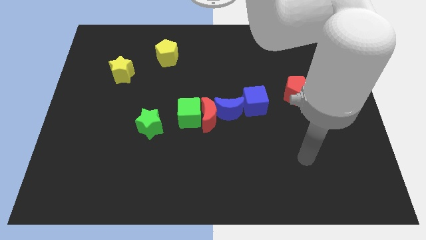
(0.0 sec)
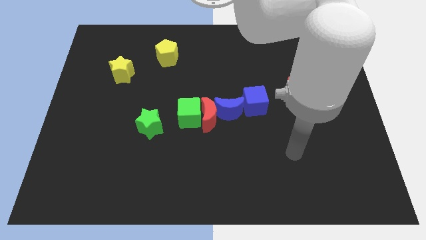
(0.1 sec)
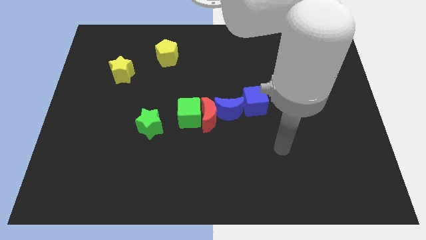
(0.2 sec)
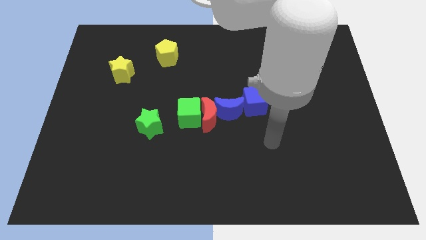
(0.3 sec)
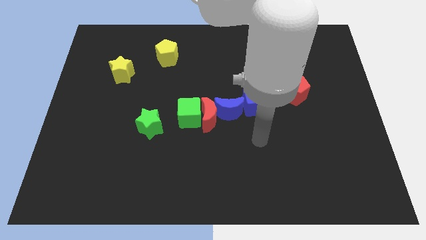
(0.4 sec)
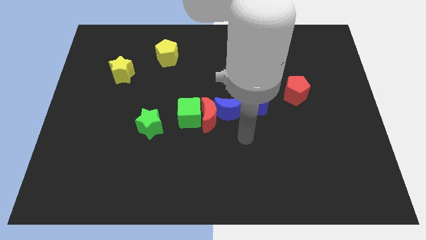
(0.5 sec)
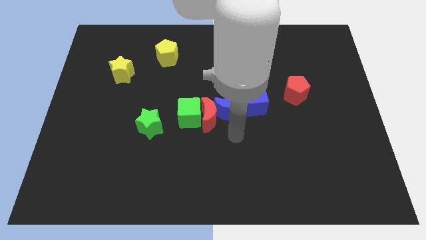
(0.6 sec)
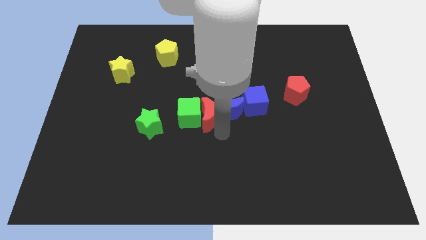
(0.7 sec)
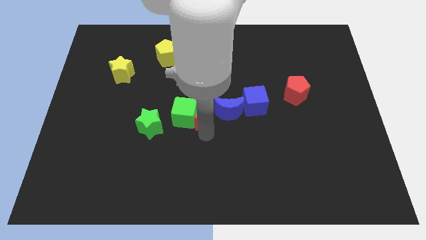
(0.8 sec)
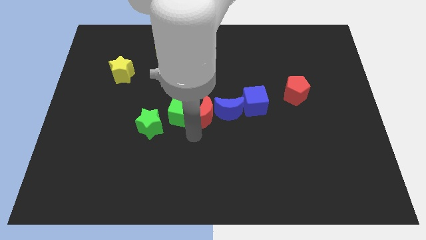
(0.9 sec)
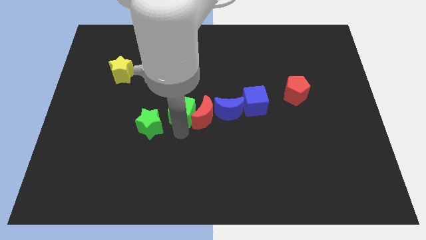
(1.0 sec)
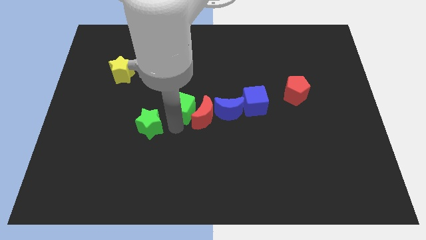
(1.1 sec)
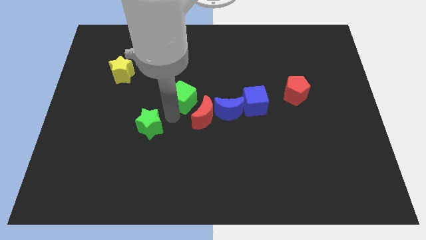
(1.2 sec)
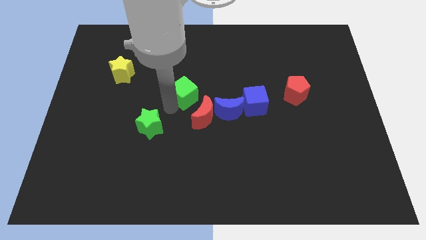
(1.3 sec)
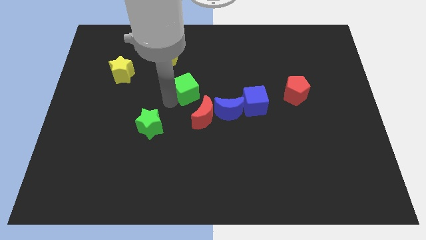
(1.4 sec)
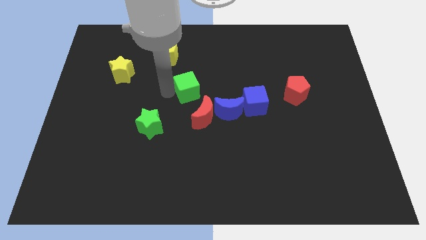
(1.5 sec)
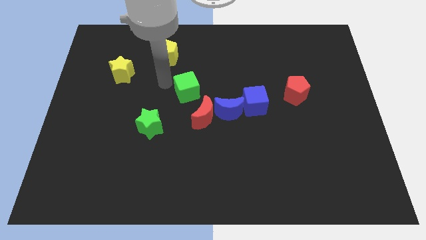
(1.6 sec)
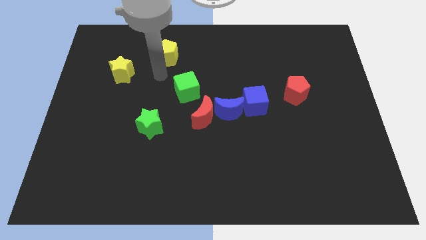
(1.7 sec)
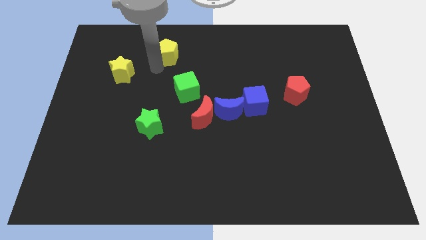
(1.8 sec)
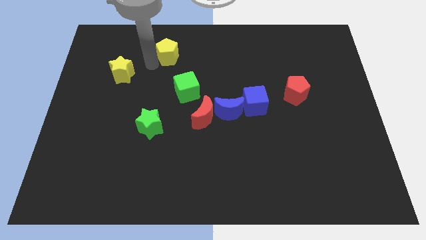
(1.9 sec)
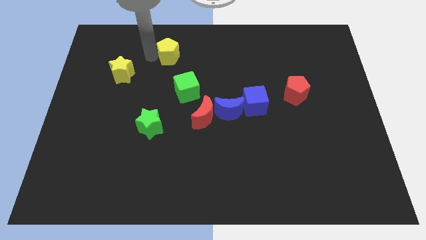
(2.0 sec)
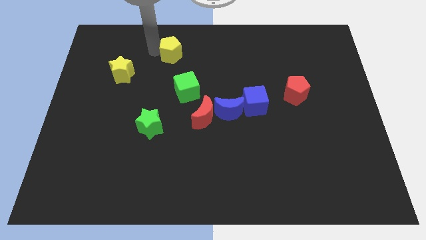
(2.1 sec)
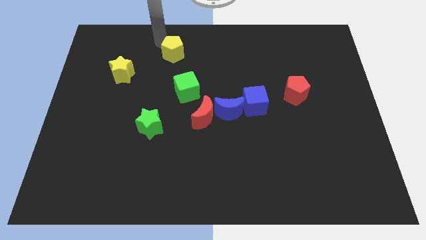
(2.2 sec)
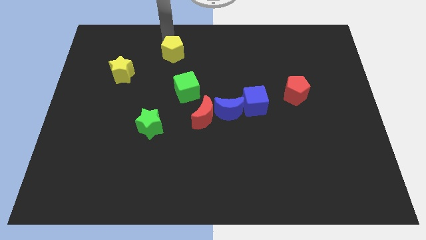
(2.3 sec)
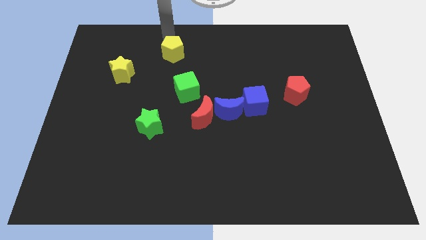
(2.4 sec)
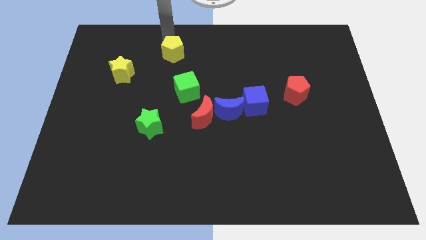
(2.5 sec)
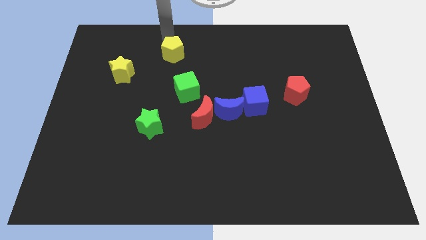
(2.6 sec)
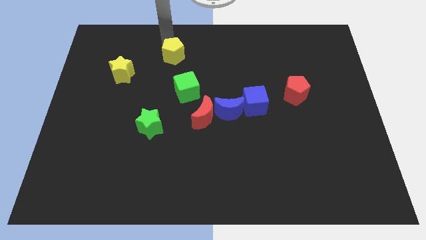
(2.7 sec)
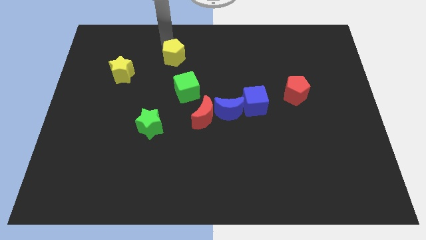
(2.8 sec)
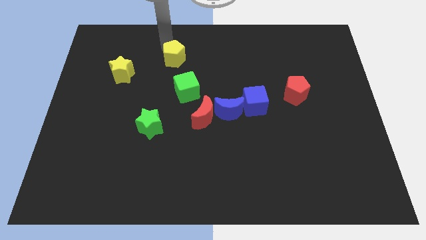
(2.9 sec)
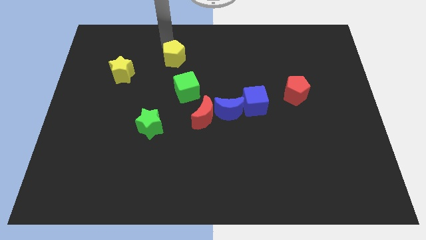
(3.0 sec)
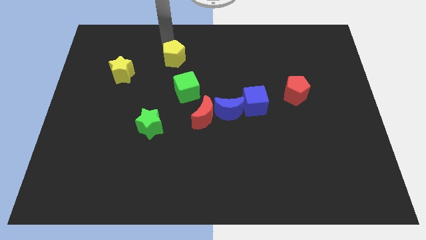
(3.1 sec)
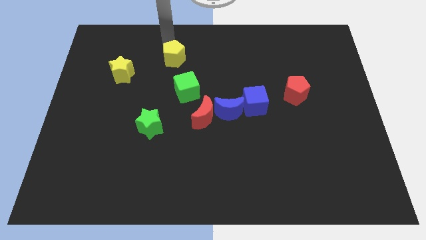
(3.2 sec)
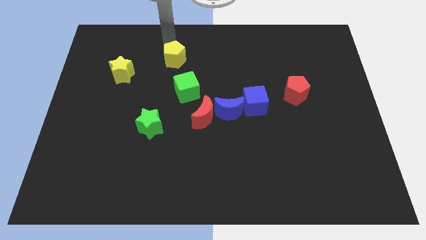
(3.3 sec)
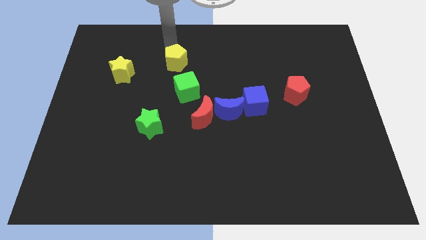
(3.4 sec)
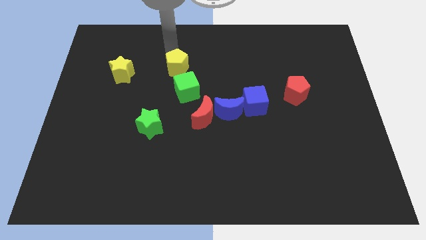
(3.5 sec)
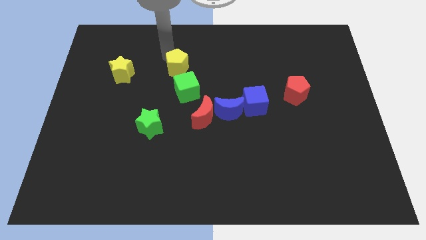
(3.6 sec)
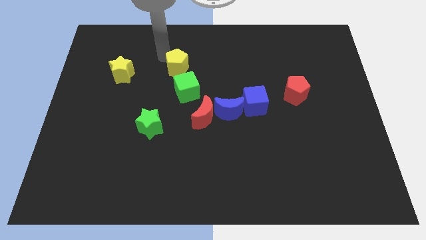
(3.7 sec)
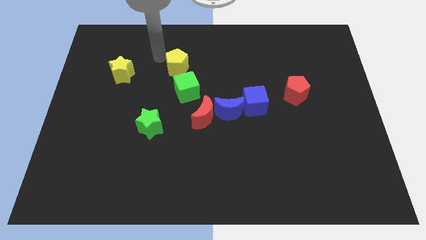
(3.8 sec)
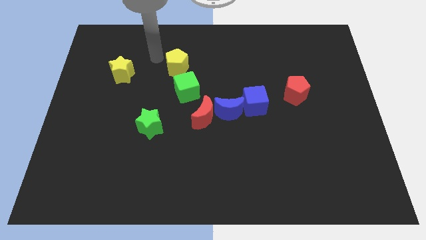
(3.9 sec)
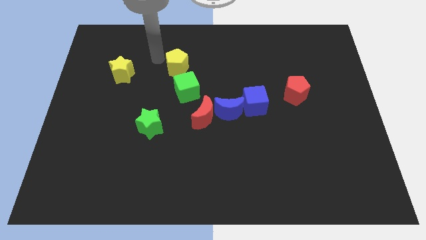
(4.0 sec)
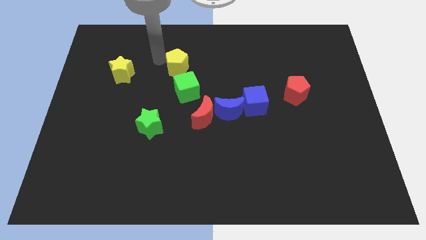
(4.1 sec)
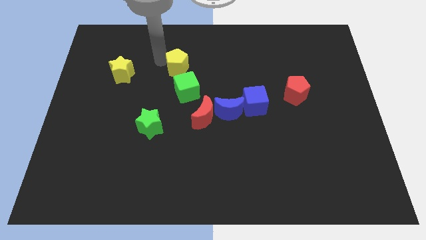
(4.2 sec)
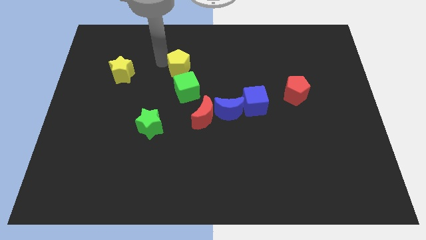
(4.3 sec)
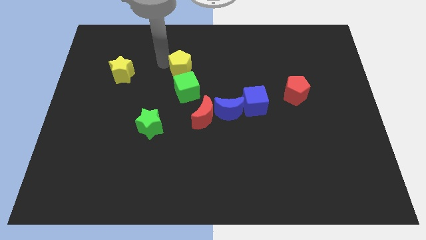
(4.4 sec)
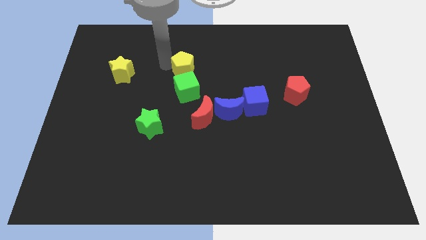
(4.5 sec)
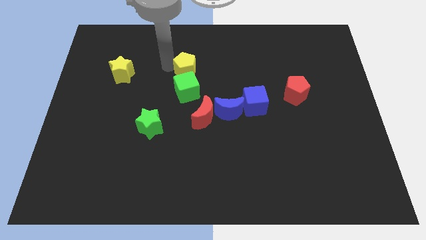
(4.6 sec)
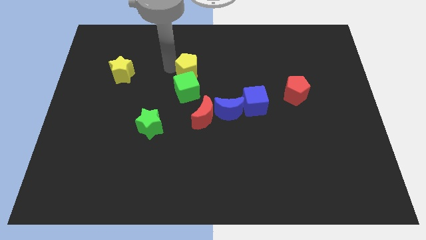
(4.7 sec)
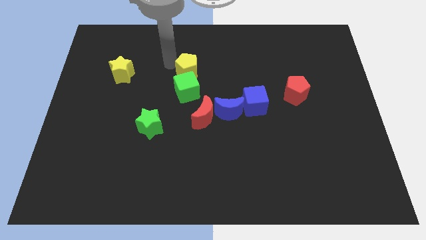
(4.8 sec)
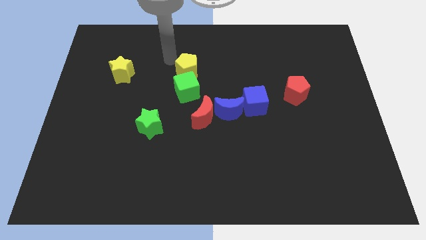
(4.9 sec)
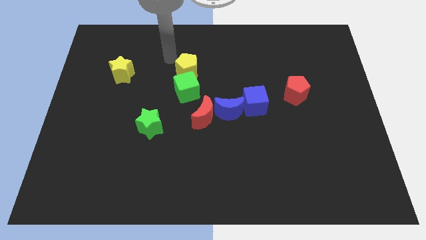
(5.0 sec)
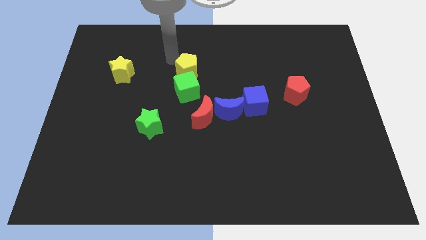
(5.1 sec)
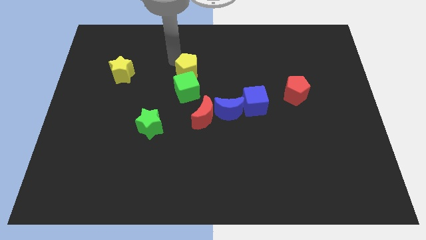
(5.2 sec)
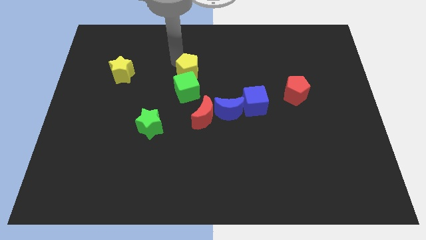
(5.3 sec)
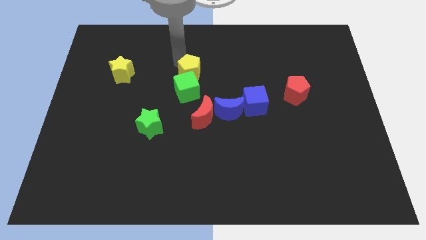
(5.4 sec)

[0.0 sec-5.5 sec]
put the yellow pentagon above the red moon

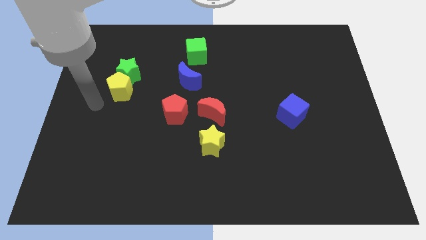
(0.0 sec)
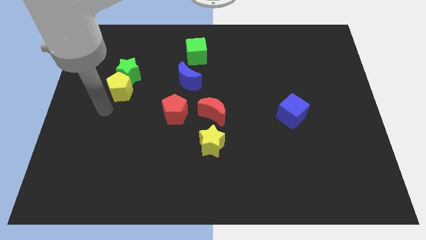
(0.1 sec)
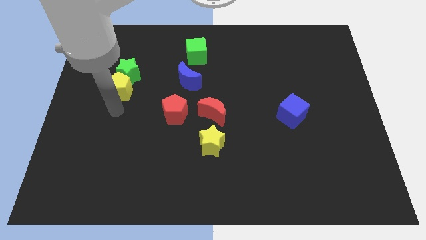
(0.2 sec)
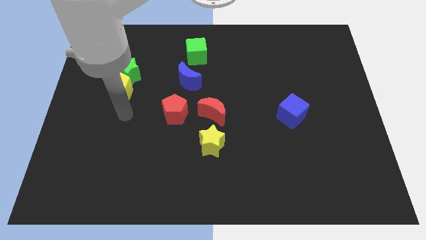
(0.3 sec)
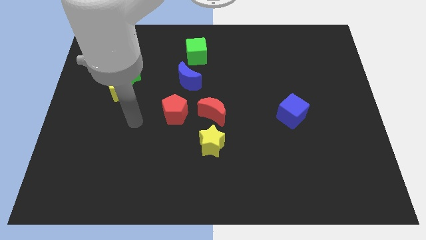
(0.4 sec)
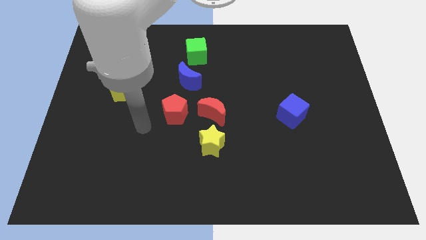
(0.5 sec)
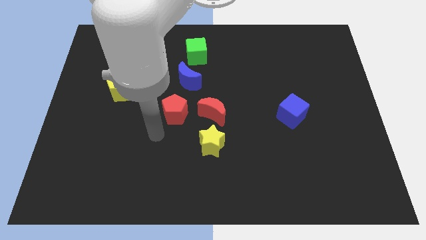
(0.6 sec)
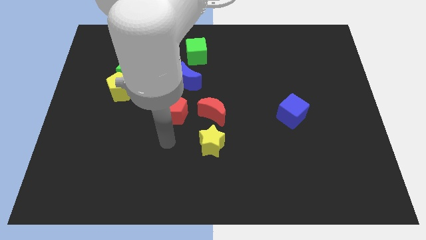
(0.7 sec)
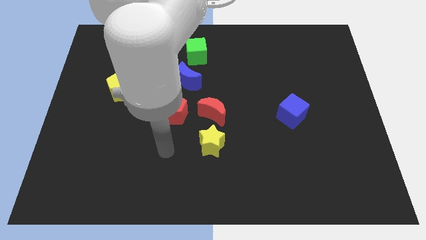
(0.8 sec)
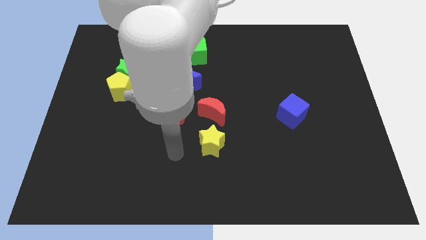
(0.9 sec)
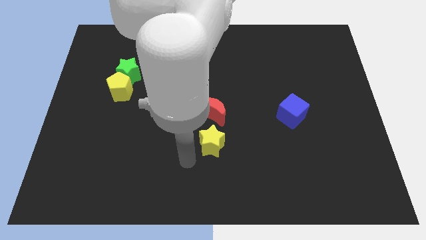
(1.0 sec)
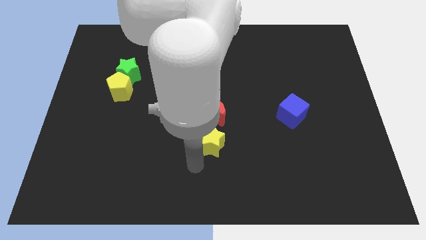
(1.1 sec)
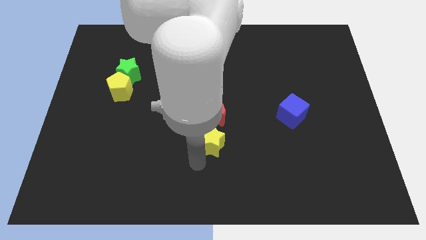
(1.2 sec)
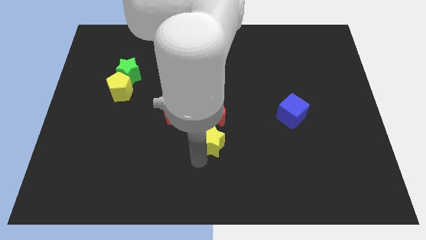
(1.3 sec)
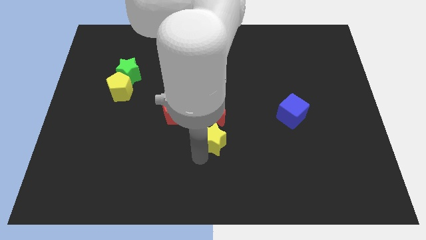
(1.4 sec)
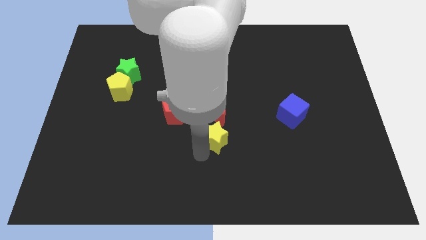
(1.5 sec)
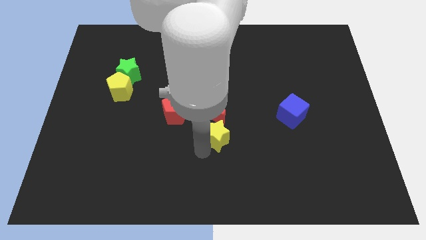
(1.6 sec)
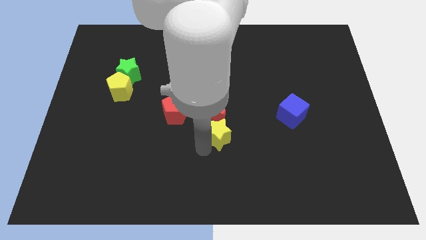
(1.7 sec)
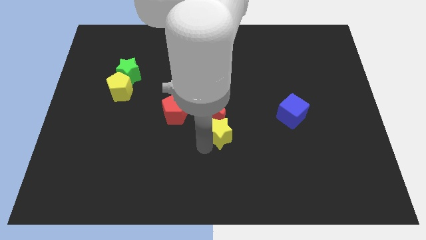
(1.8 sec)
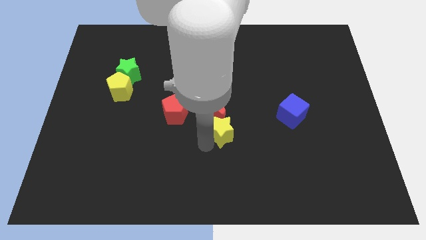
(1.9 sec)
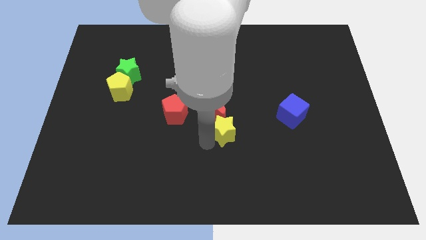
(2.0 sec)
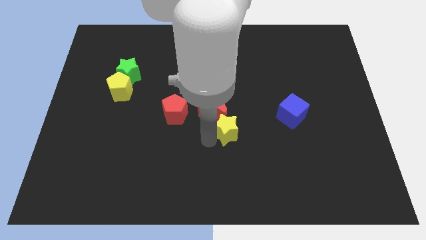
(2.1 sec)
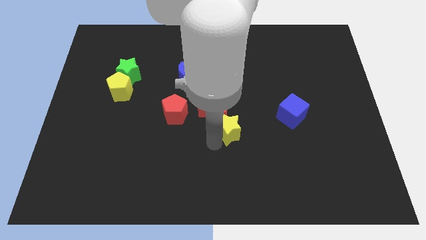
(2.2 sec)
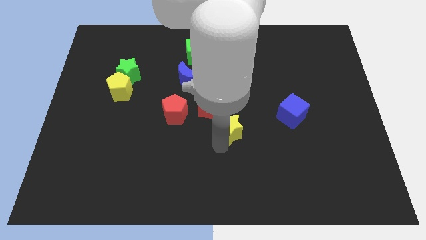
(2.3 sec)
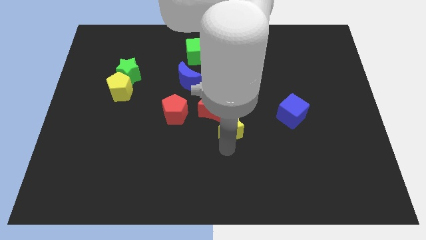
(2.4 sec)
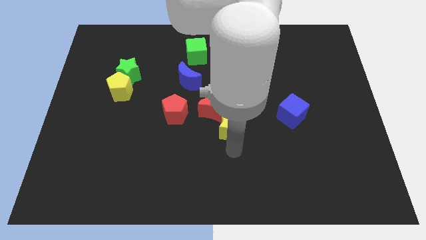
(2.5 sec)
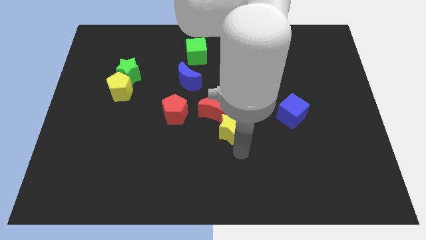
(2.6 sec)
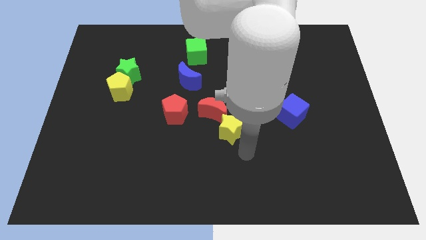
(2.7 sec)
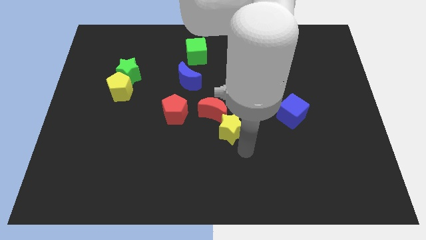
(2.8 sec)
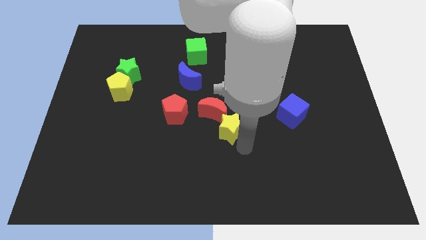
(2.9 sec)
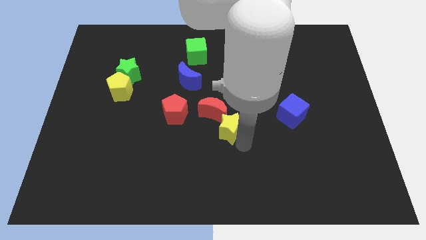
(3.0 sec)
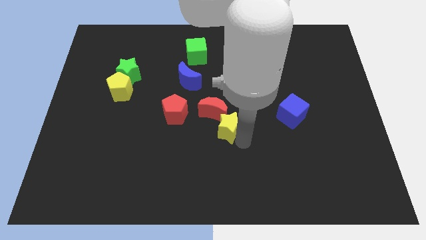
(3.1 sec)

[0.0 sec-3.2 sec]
put the yellow star to the right of the red pentagon
